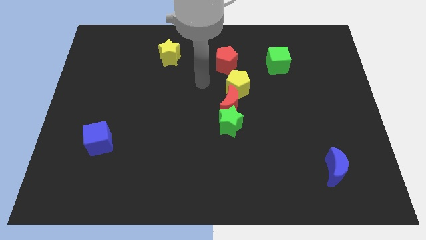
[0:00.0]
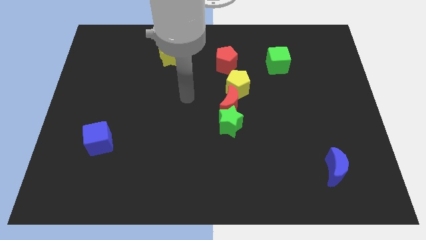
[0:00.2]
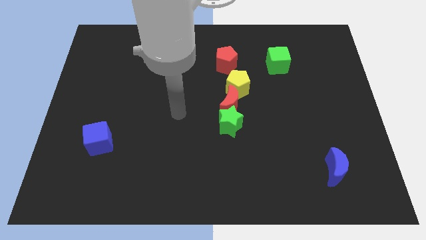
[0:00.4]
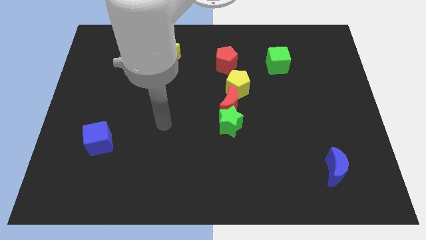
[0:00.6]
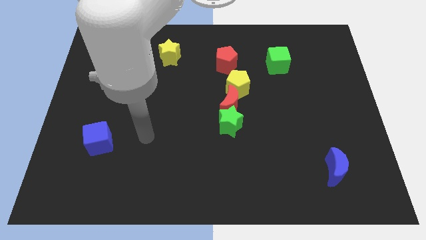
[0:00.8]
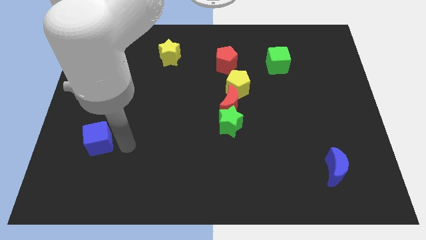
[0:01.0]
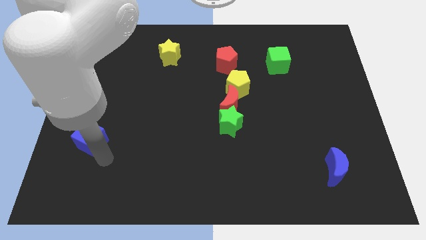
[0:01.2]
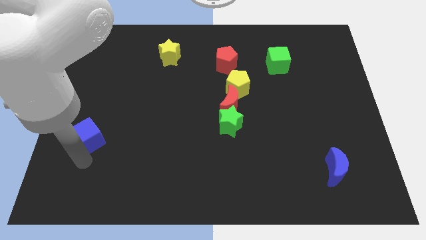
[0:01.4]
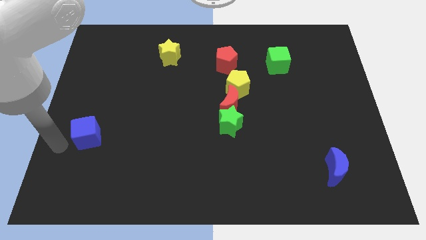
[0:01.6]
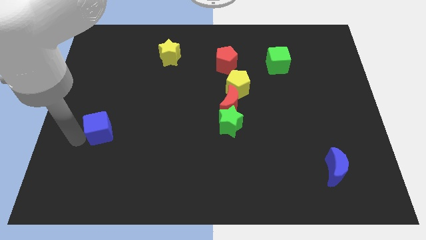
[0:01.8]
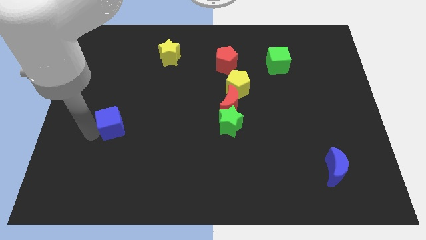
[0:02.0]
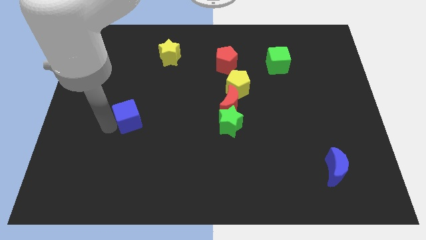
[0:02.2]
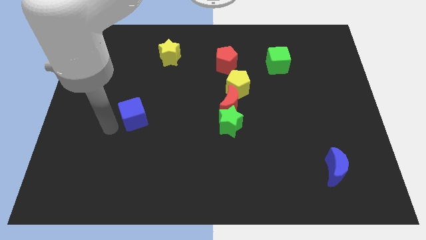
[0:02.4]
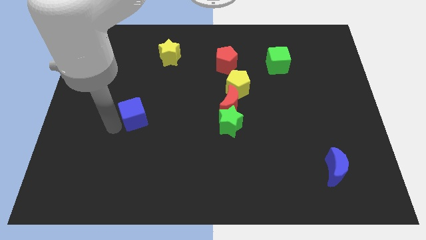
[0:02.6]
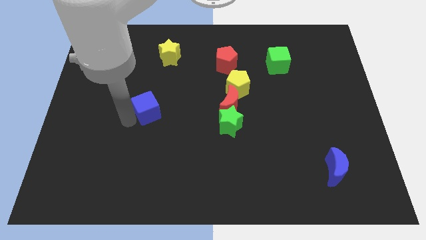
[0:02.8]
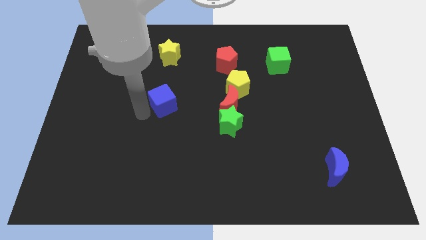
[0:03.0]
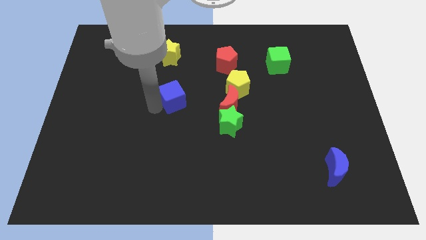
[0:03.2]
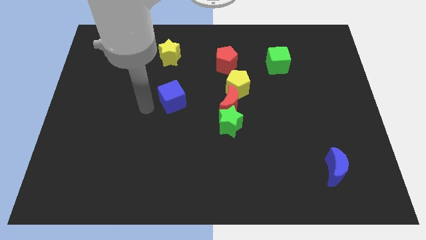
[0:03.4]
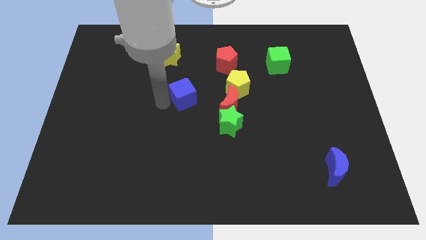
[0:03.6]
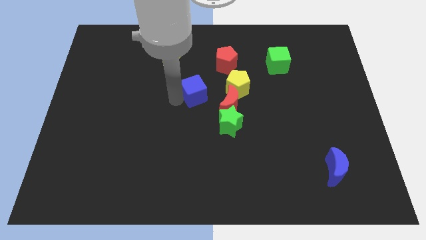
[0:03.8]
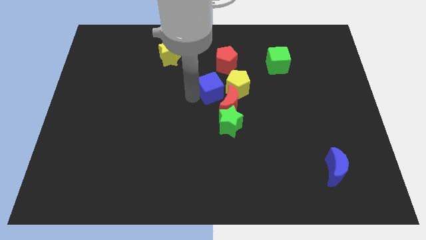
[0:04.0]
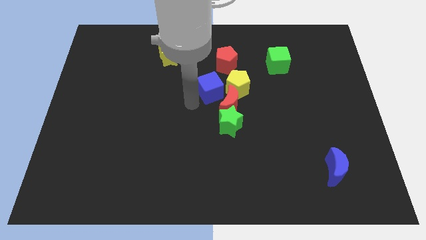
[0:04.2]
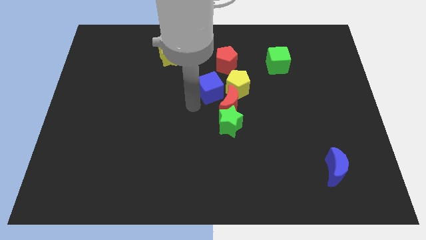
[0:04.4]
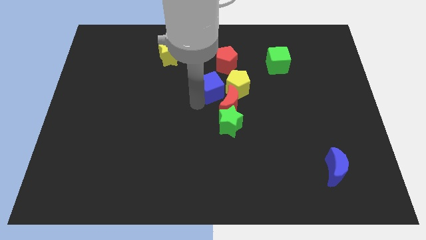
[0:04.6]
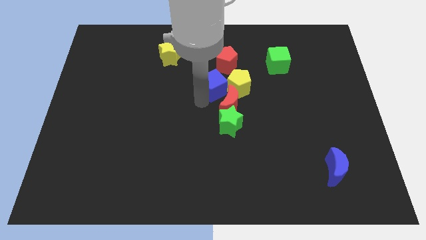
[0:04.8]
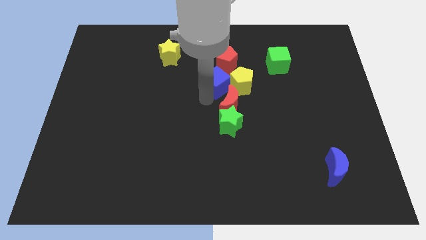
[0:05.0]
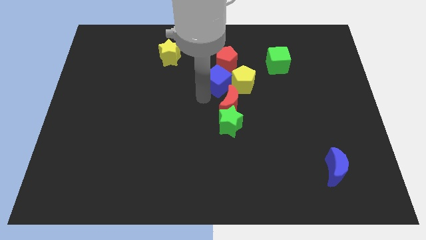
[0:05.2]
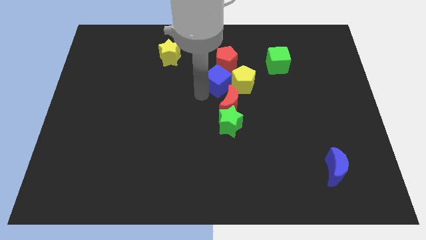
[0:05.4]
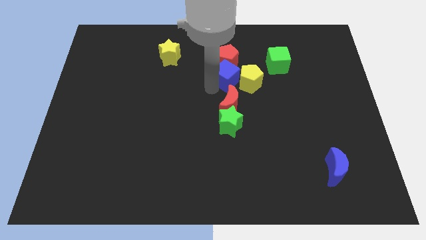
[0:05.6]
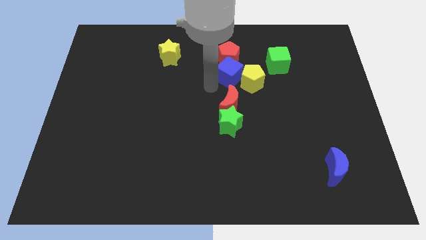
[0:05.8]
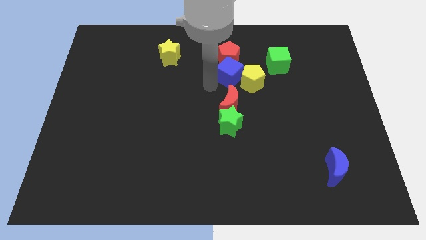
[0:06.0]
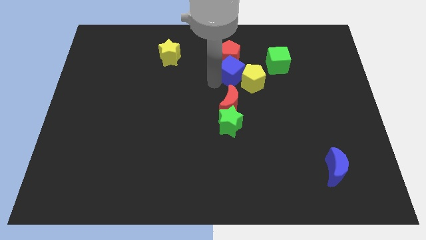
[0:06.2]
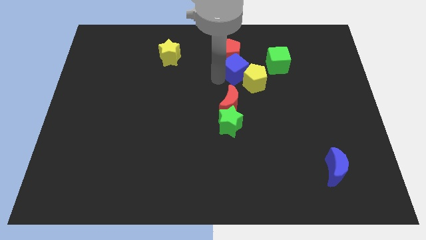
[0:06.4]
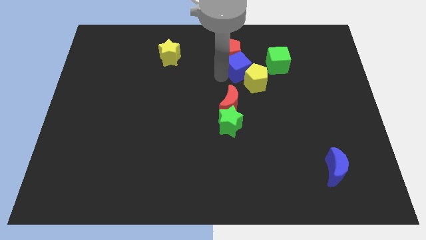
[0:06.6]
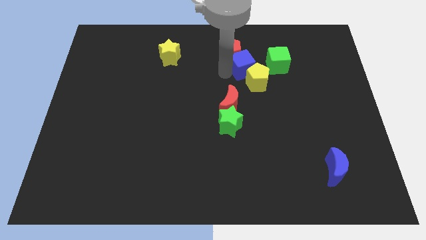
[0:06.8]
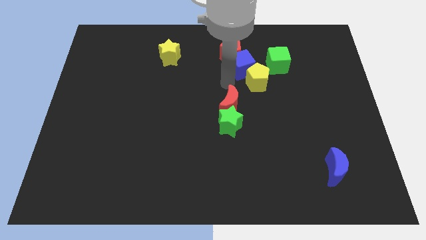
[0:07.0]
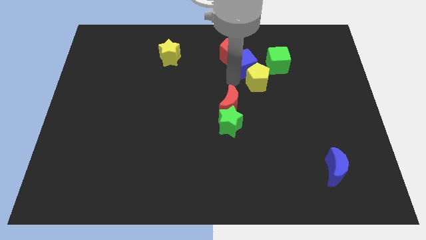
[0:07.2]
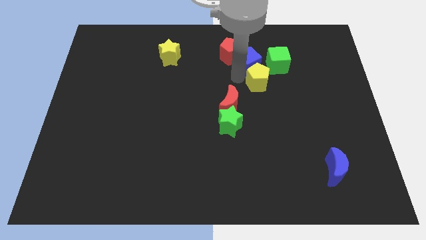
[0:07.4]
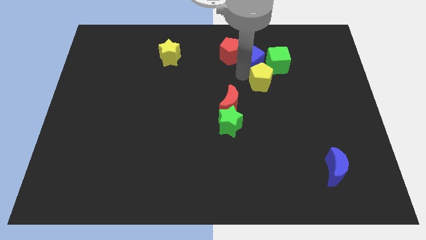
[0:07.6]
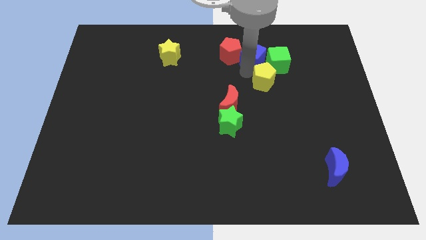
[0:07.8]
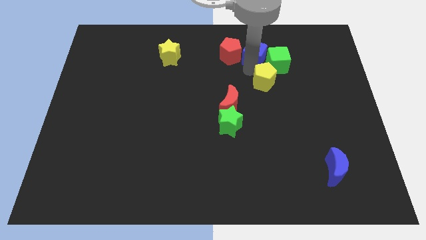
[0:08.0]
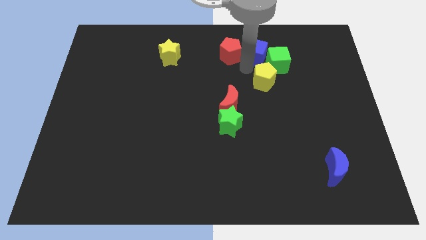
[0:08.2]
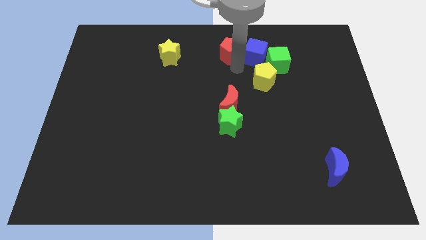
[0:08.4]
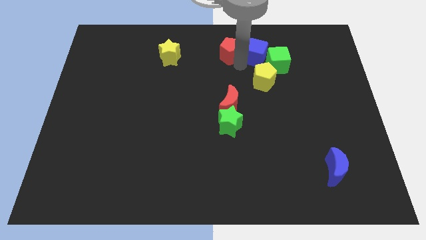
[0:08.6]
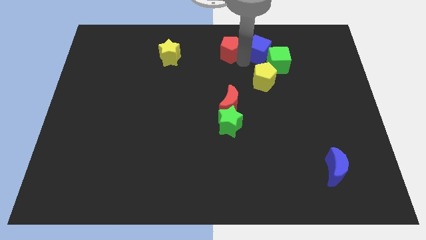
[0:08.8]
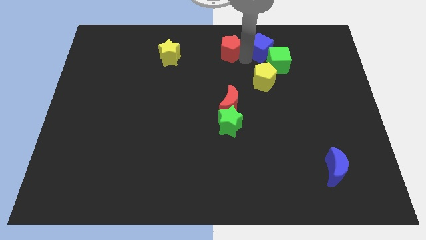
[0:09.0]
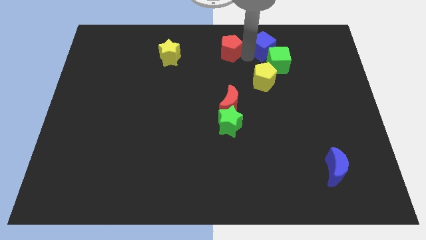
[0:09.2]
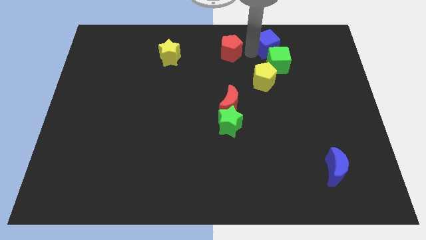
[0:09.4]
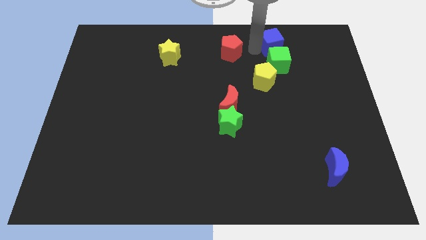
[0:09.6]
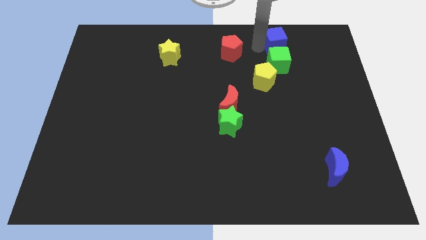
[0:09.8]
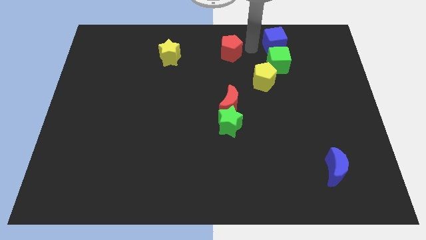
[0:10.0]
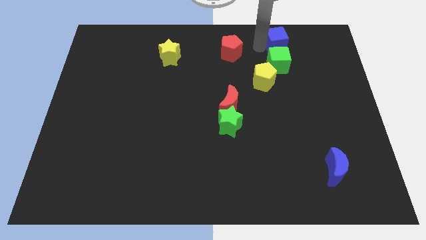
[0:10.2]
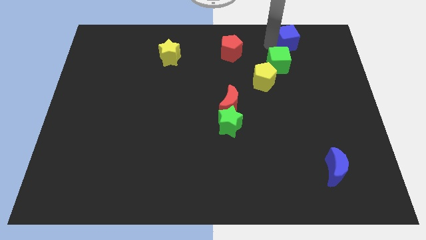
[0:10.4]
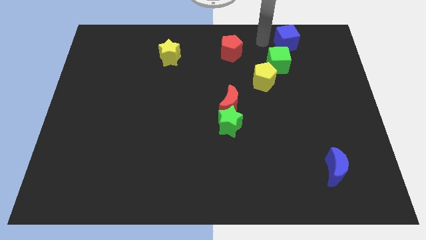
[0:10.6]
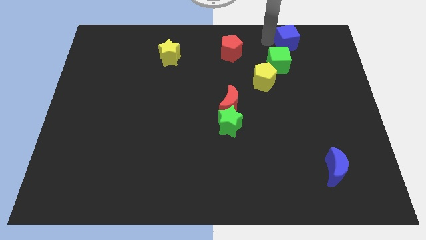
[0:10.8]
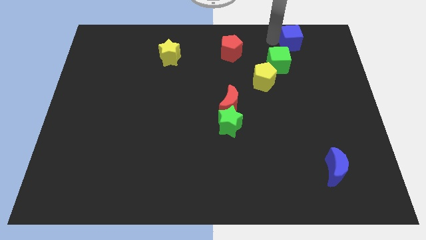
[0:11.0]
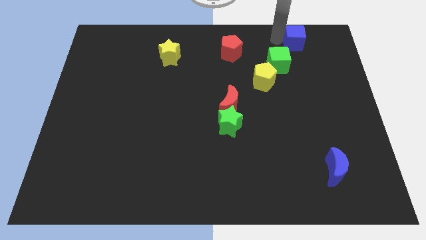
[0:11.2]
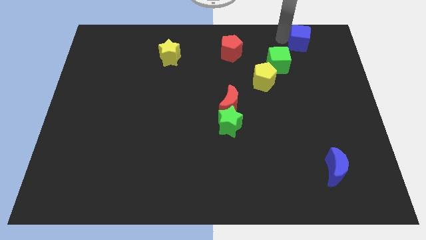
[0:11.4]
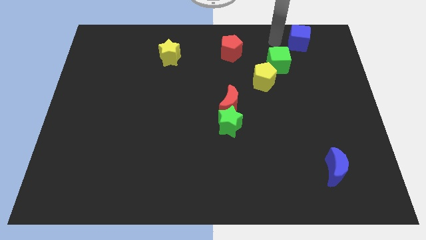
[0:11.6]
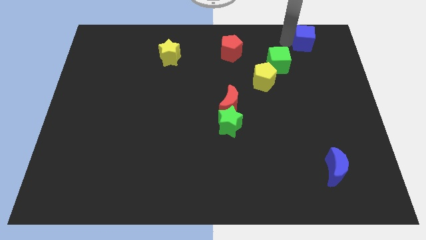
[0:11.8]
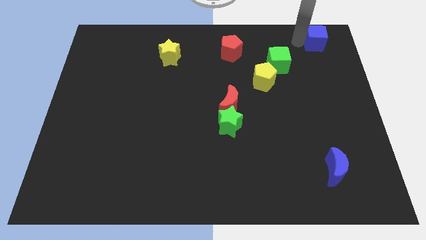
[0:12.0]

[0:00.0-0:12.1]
put the blue cube to the top right of the board

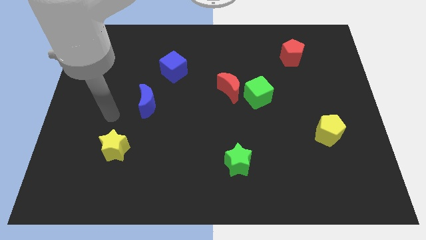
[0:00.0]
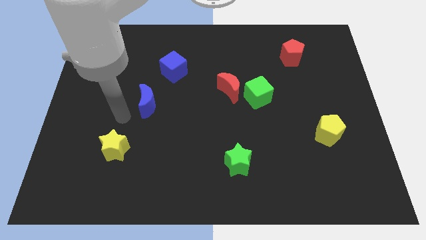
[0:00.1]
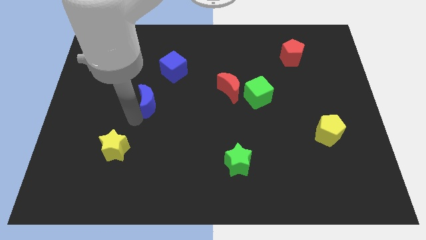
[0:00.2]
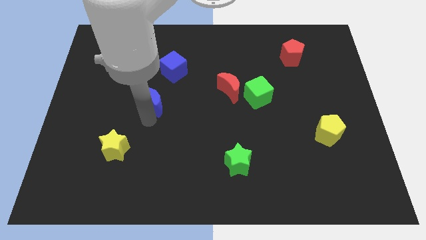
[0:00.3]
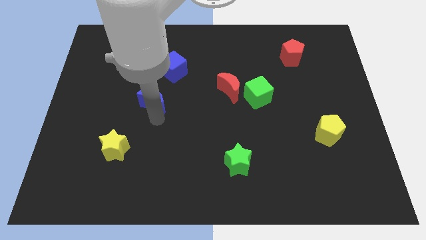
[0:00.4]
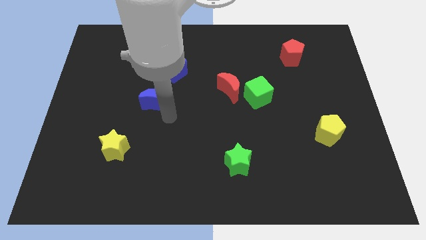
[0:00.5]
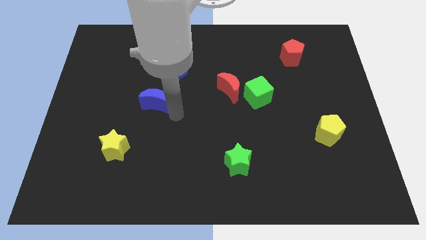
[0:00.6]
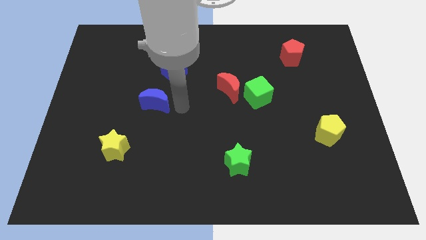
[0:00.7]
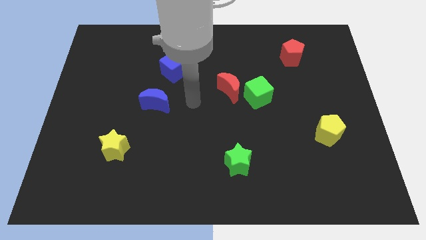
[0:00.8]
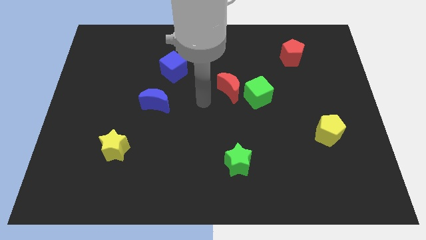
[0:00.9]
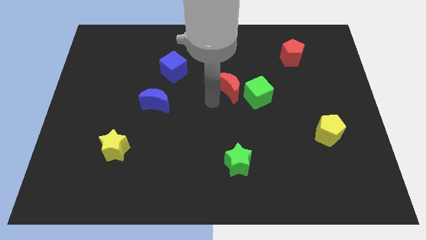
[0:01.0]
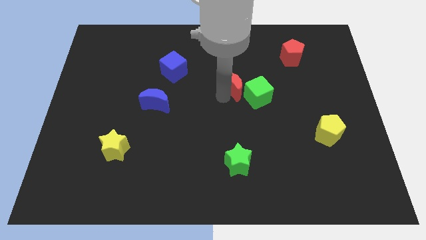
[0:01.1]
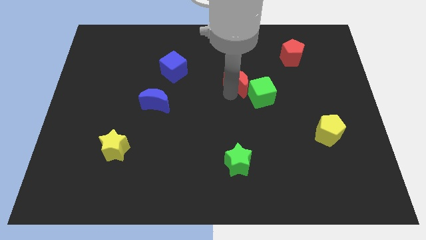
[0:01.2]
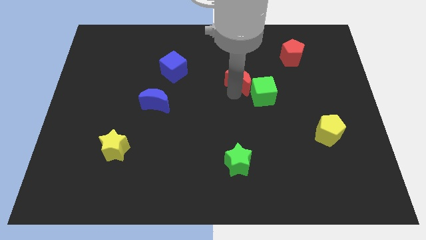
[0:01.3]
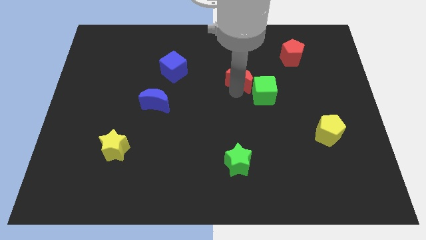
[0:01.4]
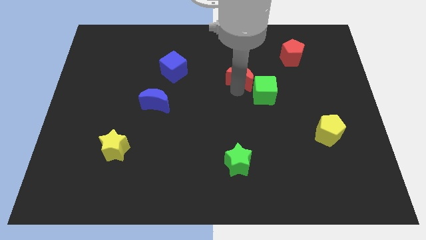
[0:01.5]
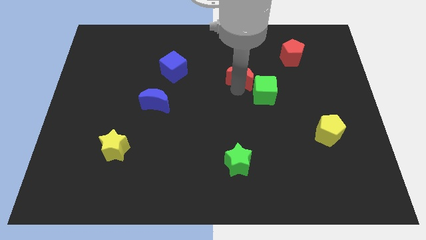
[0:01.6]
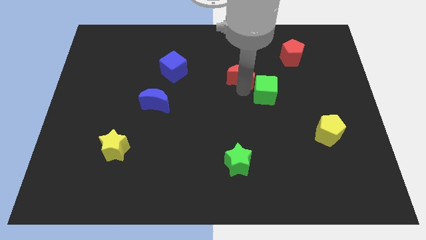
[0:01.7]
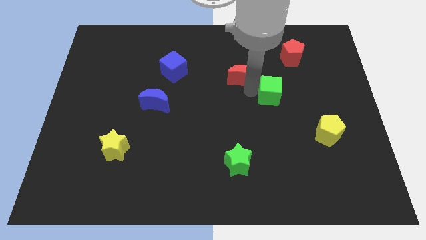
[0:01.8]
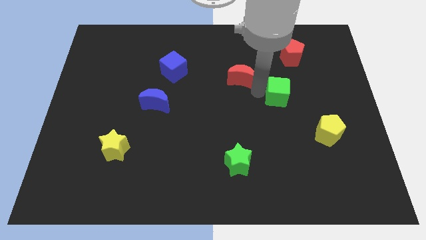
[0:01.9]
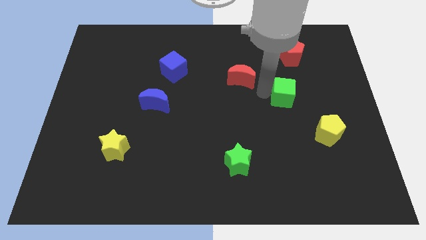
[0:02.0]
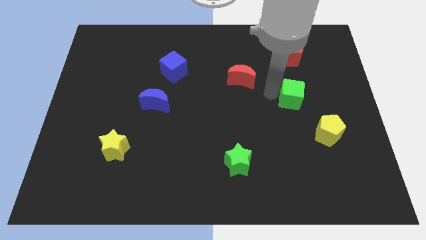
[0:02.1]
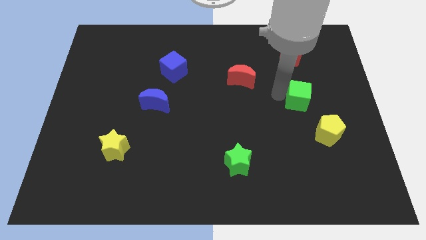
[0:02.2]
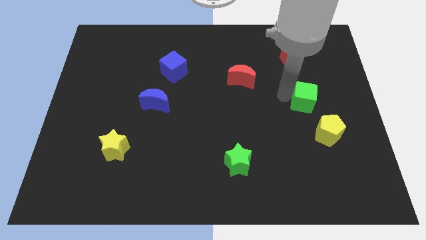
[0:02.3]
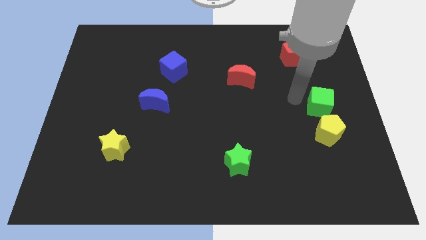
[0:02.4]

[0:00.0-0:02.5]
put the green cube to the right side of the board
